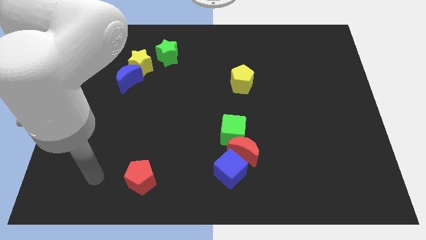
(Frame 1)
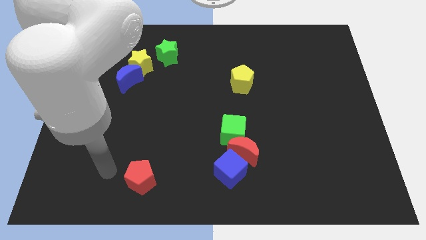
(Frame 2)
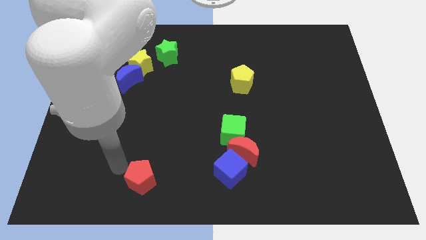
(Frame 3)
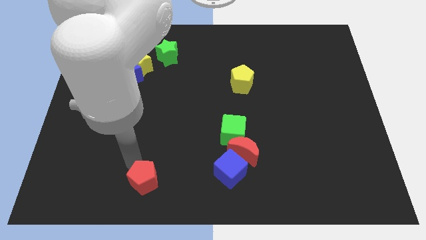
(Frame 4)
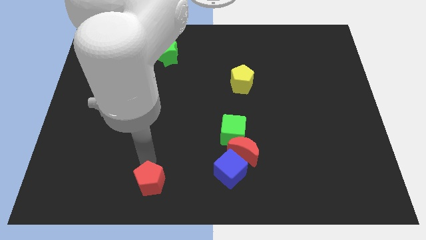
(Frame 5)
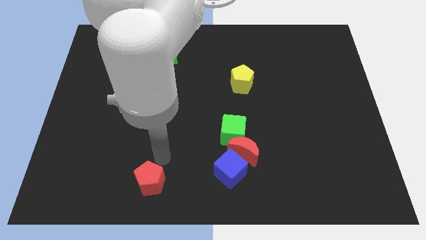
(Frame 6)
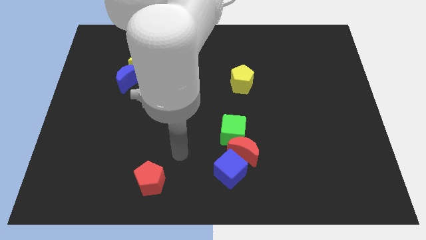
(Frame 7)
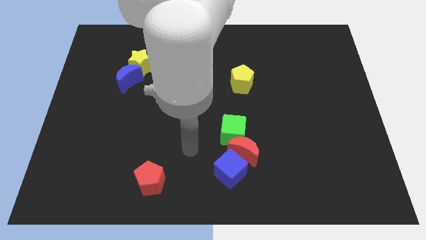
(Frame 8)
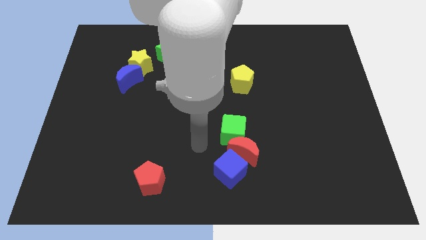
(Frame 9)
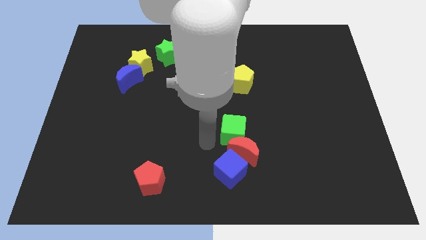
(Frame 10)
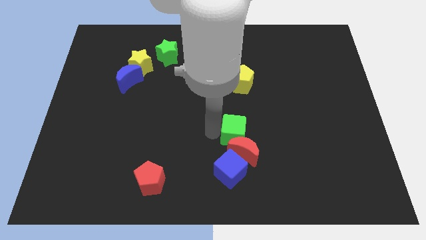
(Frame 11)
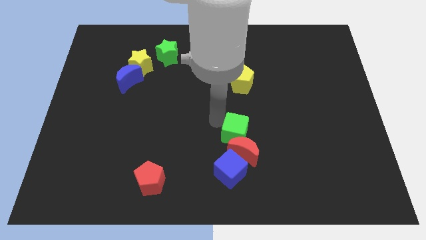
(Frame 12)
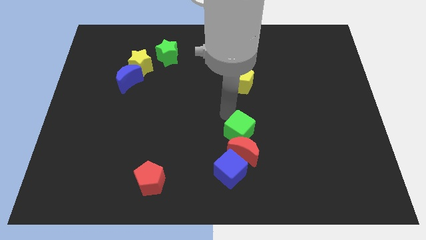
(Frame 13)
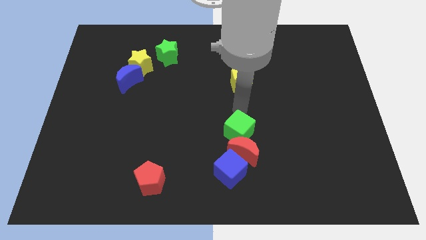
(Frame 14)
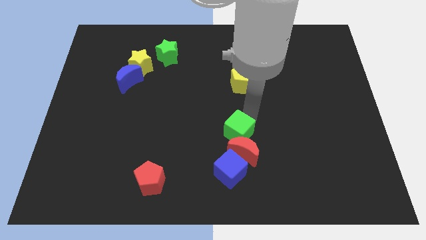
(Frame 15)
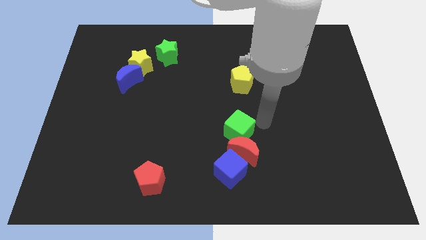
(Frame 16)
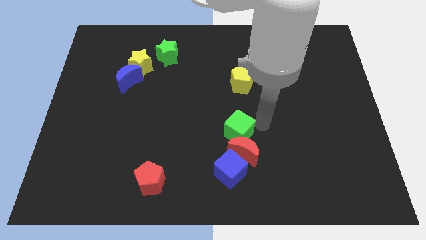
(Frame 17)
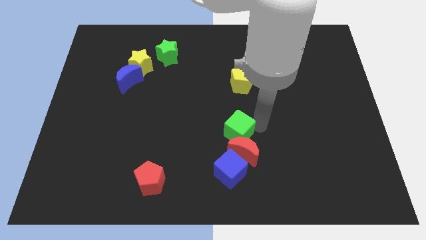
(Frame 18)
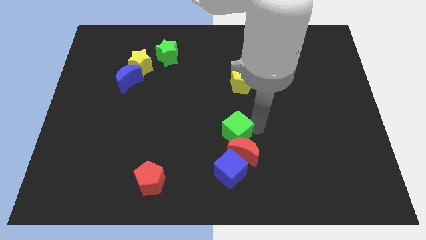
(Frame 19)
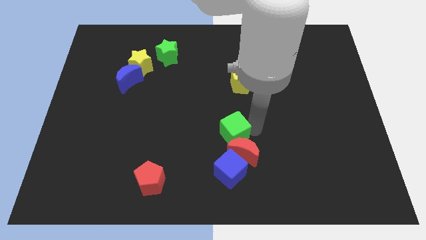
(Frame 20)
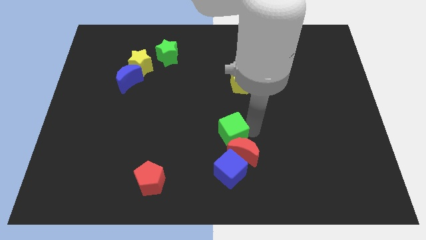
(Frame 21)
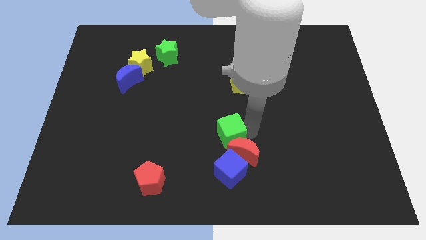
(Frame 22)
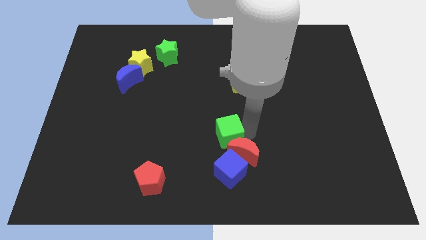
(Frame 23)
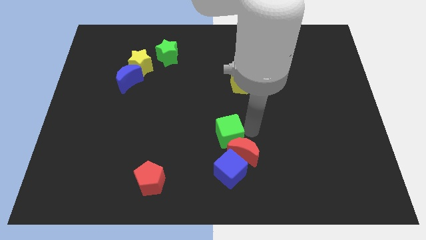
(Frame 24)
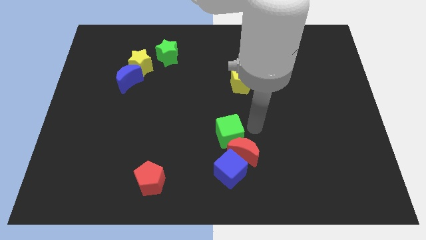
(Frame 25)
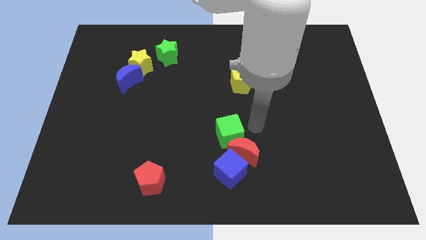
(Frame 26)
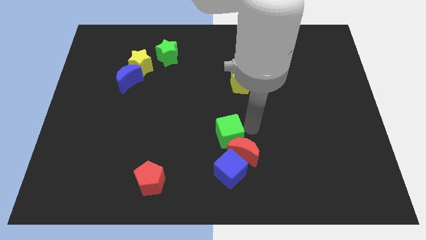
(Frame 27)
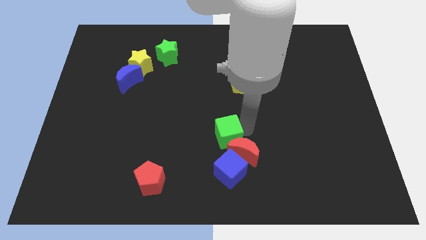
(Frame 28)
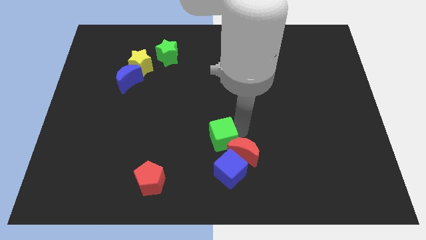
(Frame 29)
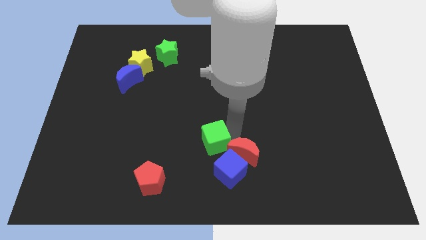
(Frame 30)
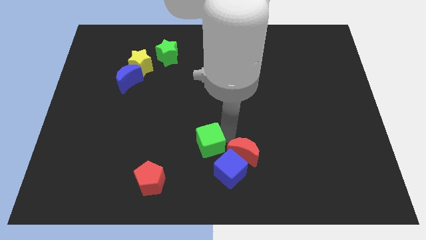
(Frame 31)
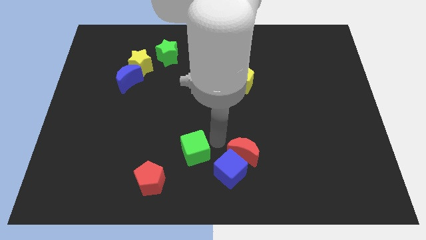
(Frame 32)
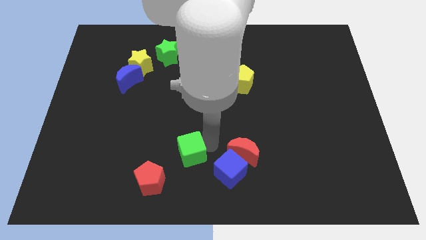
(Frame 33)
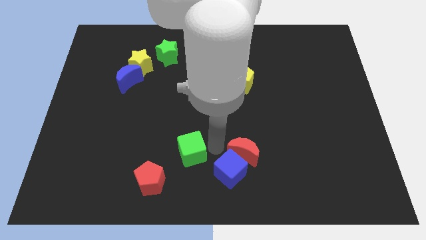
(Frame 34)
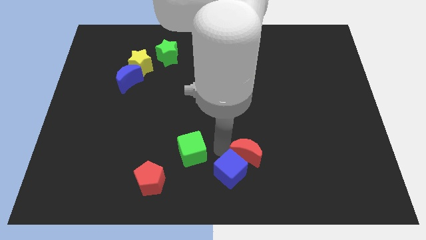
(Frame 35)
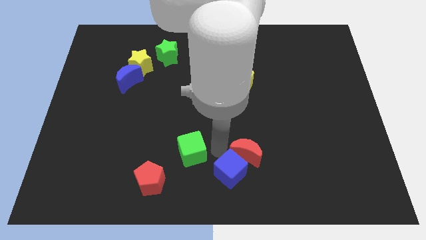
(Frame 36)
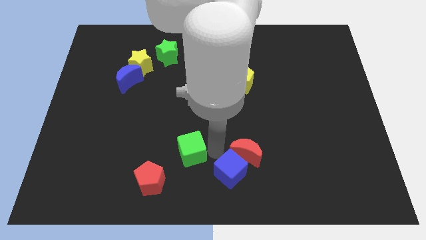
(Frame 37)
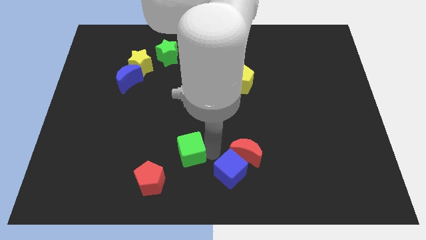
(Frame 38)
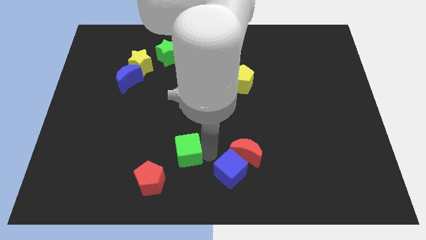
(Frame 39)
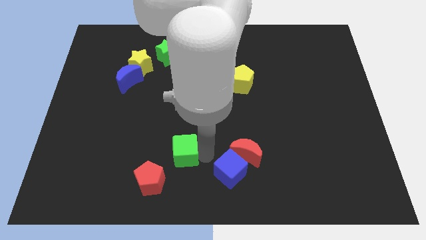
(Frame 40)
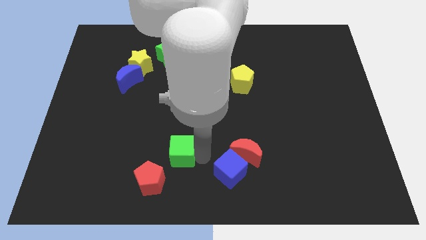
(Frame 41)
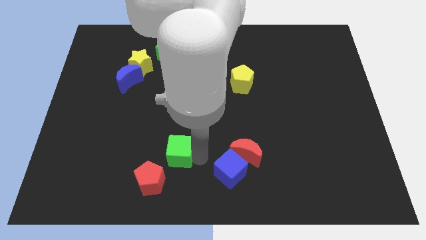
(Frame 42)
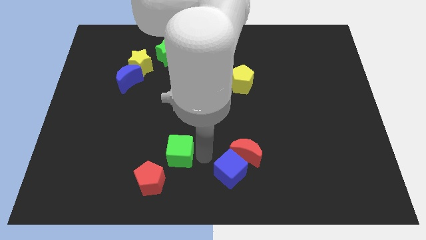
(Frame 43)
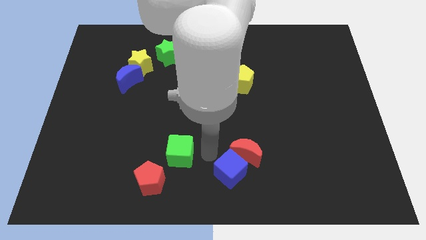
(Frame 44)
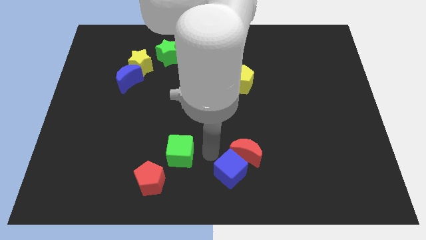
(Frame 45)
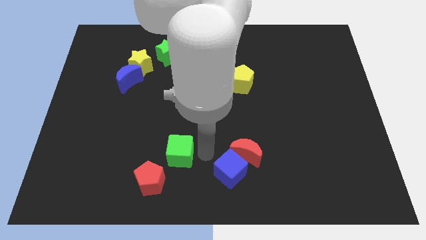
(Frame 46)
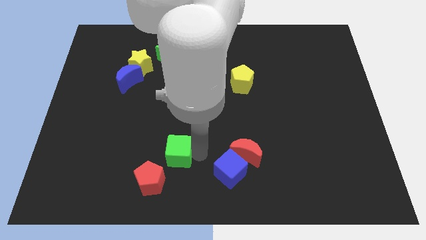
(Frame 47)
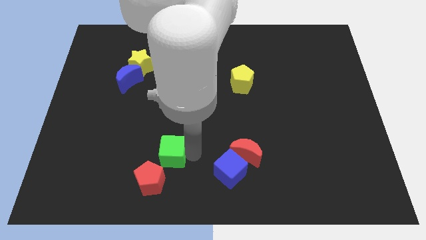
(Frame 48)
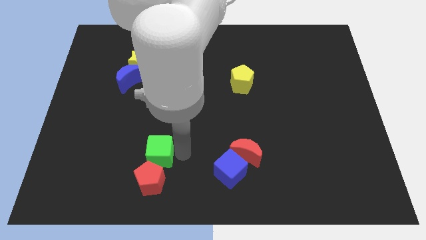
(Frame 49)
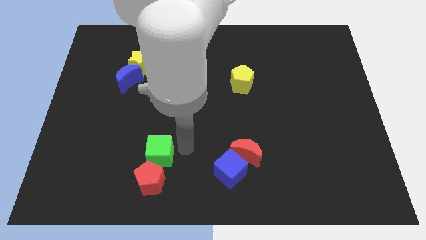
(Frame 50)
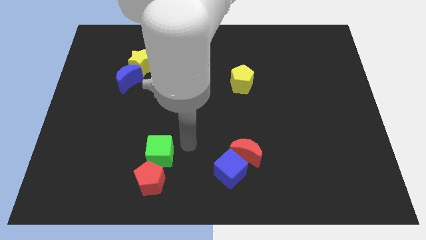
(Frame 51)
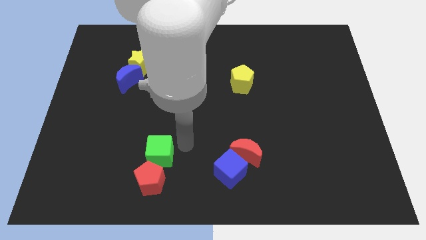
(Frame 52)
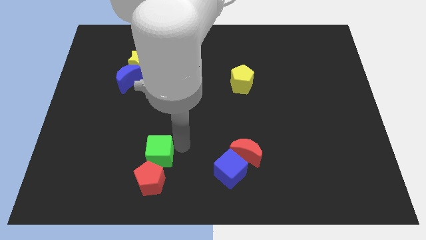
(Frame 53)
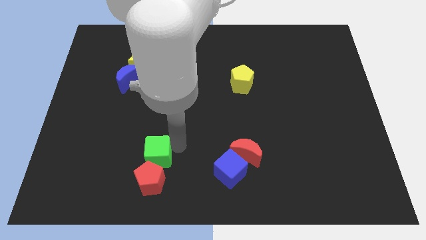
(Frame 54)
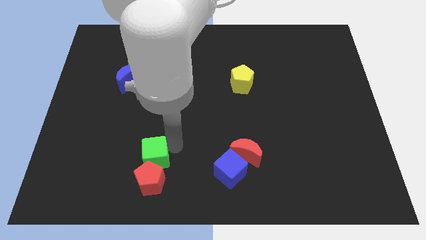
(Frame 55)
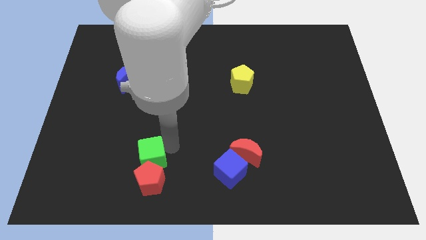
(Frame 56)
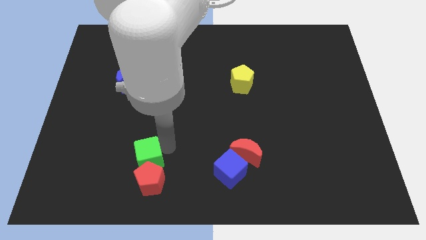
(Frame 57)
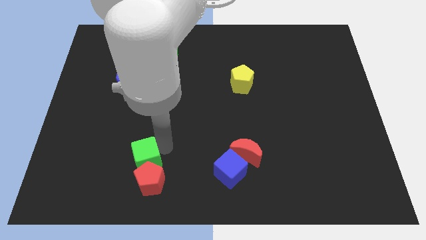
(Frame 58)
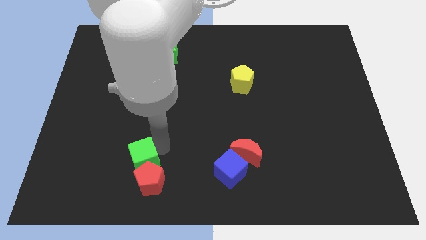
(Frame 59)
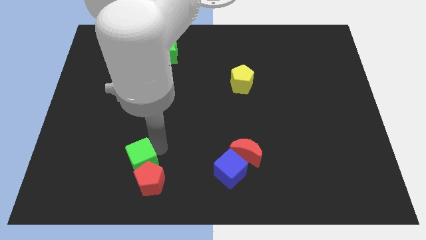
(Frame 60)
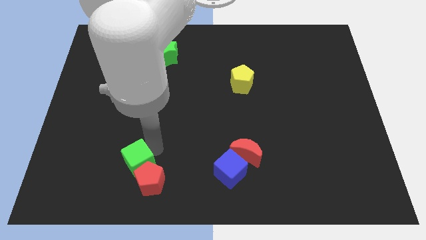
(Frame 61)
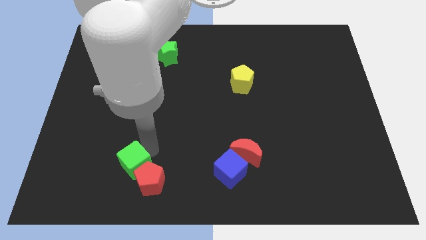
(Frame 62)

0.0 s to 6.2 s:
slide the green cube to the left of the red pentagon

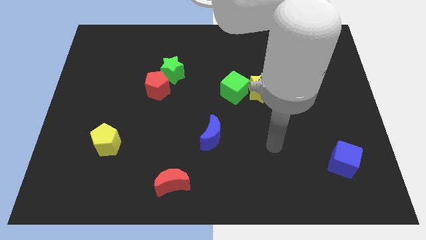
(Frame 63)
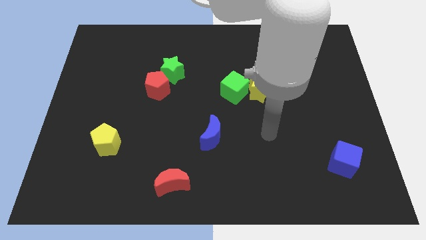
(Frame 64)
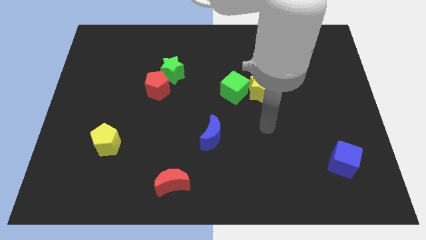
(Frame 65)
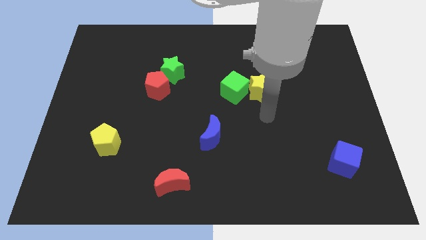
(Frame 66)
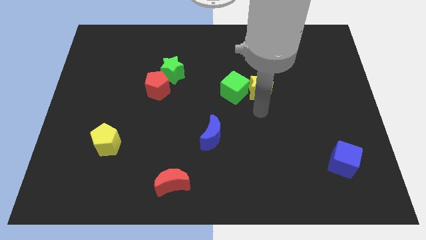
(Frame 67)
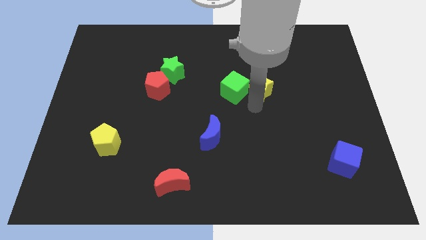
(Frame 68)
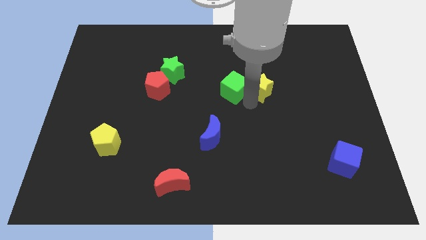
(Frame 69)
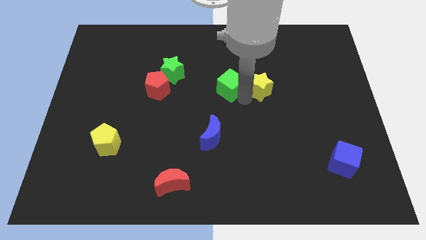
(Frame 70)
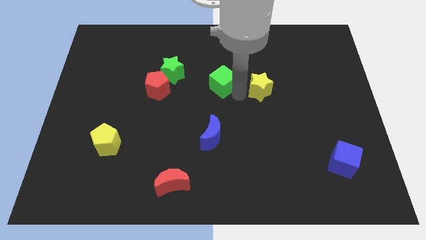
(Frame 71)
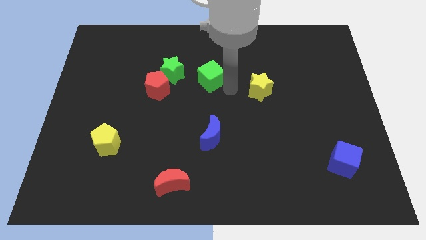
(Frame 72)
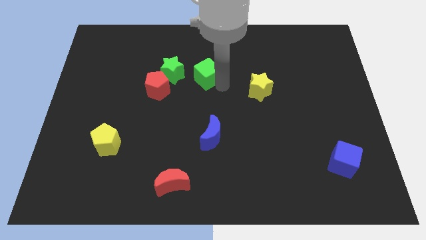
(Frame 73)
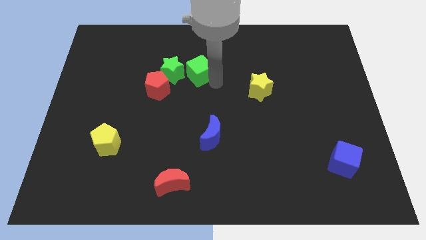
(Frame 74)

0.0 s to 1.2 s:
push the green cube to the top right side of the green star
